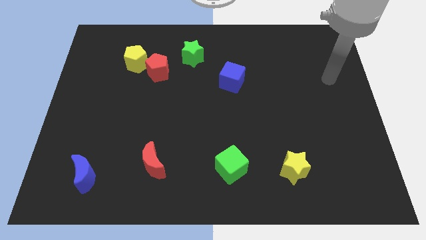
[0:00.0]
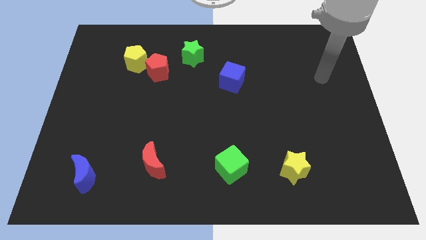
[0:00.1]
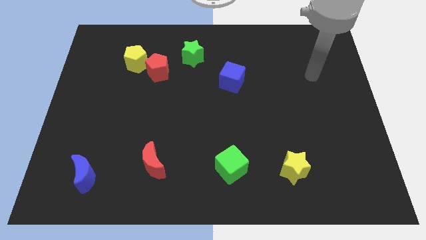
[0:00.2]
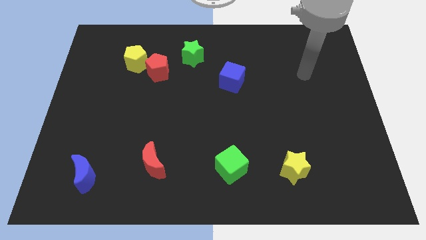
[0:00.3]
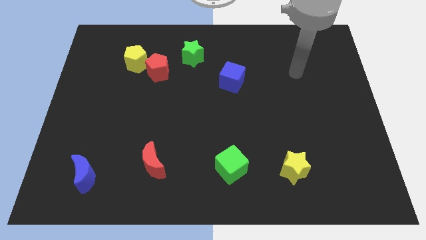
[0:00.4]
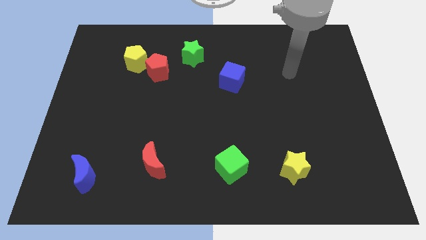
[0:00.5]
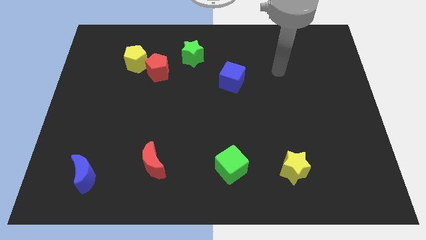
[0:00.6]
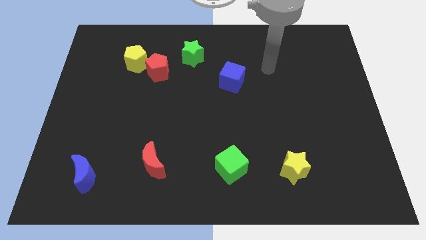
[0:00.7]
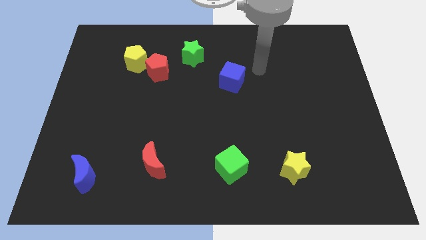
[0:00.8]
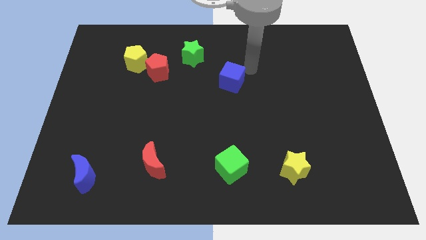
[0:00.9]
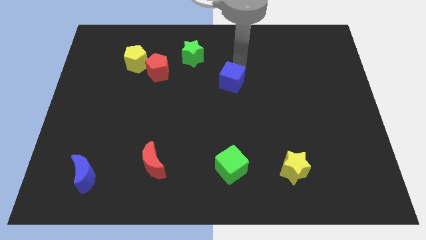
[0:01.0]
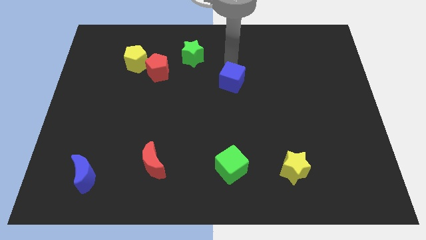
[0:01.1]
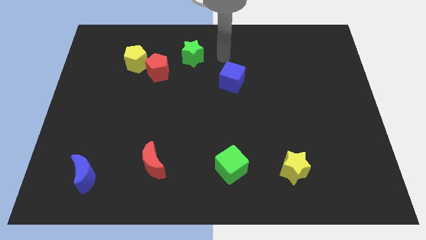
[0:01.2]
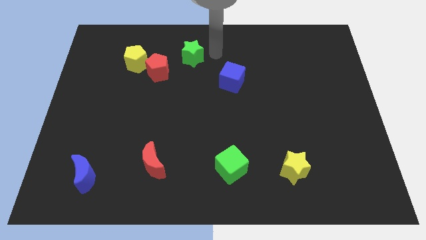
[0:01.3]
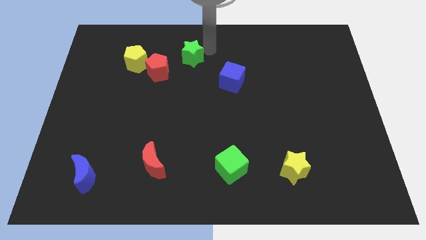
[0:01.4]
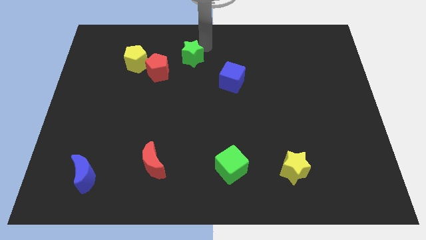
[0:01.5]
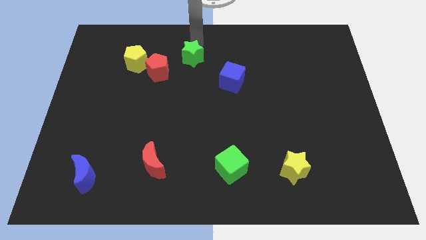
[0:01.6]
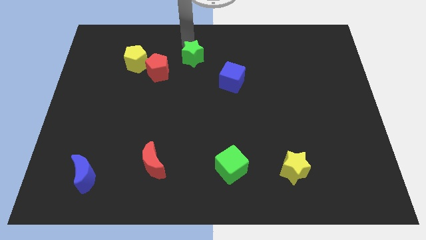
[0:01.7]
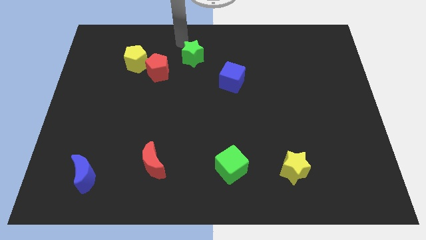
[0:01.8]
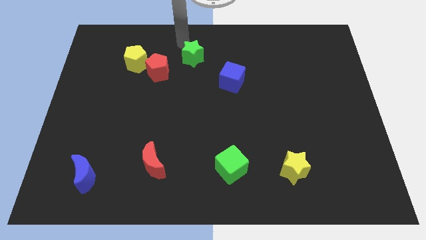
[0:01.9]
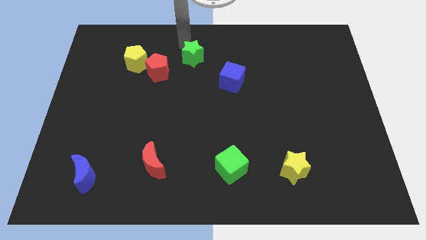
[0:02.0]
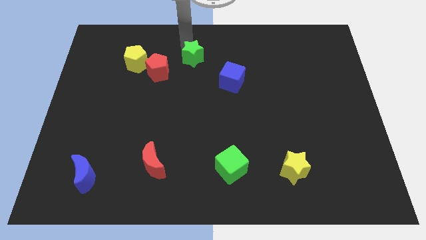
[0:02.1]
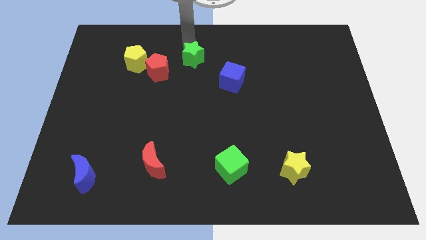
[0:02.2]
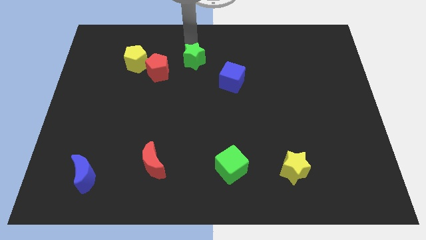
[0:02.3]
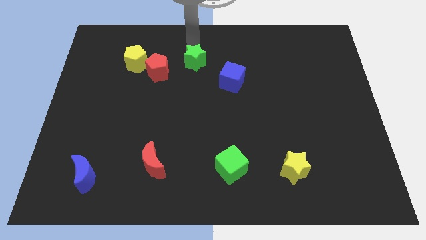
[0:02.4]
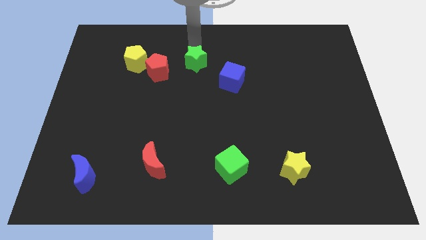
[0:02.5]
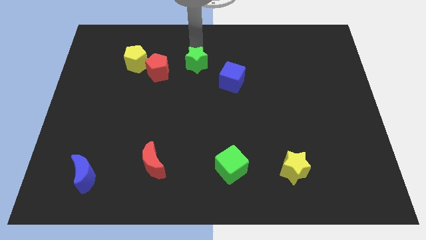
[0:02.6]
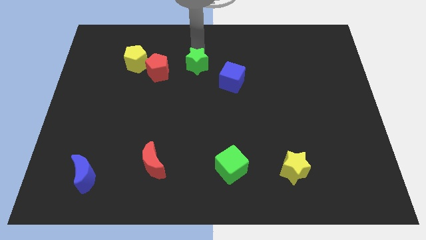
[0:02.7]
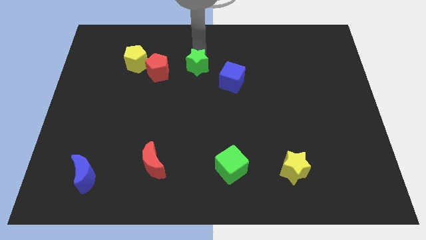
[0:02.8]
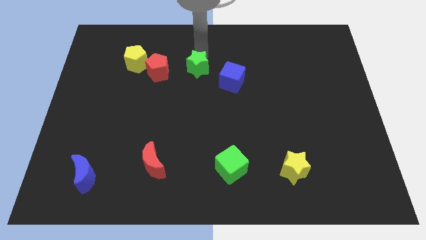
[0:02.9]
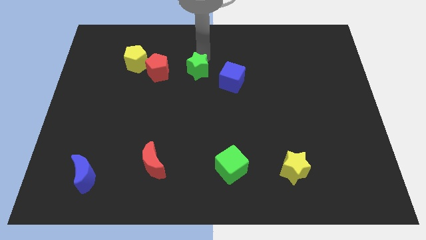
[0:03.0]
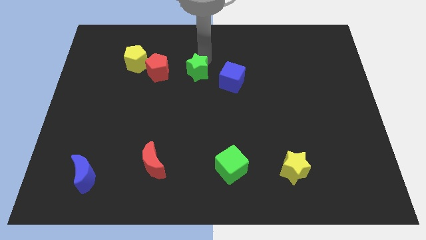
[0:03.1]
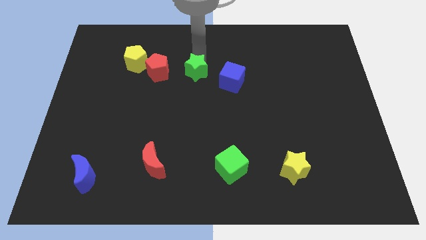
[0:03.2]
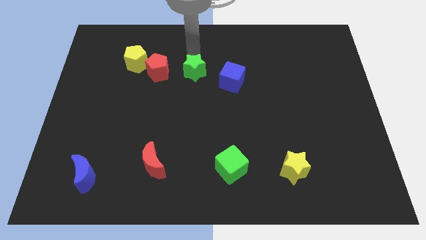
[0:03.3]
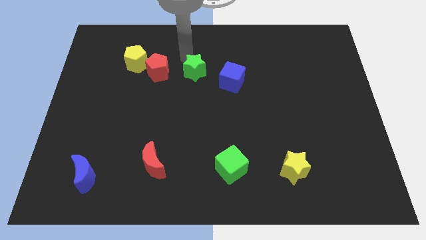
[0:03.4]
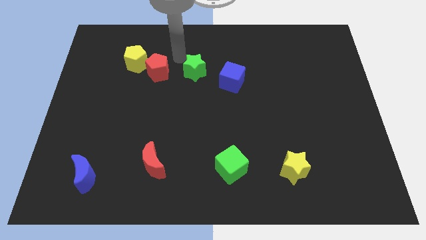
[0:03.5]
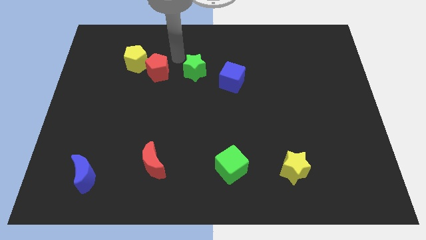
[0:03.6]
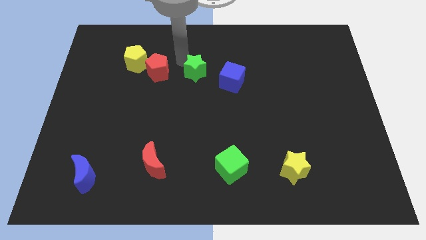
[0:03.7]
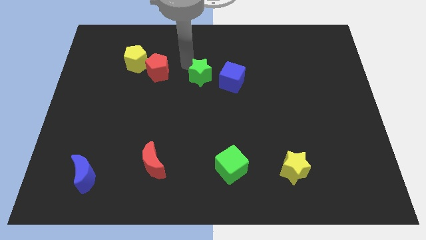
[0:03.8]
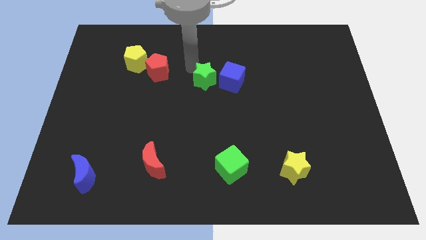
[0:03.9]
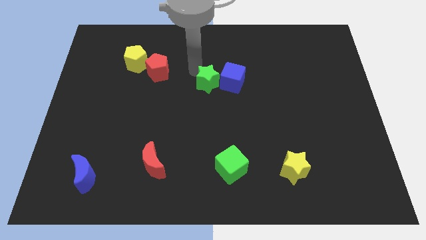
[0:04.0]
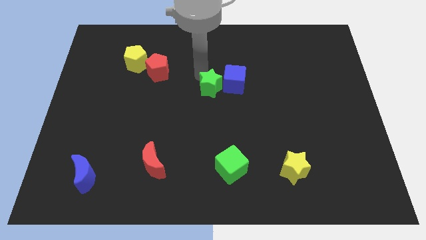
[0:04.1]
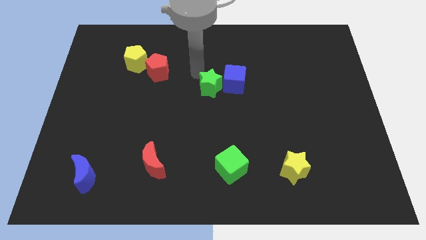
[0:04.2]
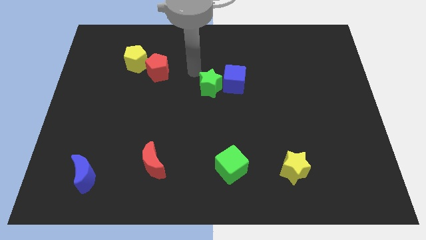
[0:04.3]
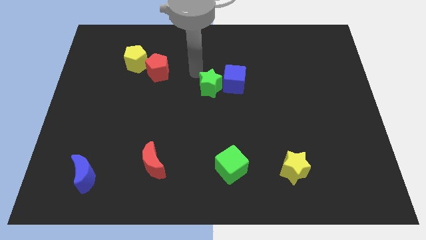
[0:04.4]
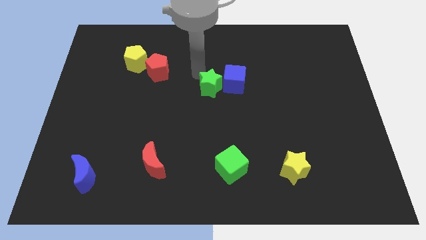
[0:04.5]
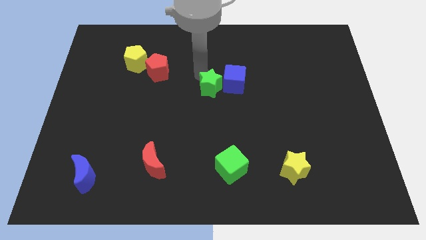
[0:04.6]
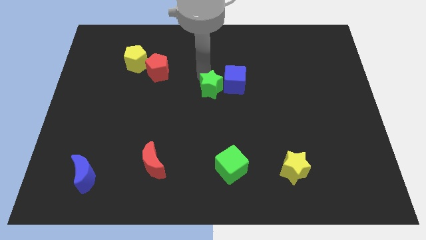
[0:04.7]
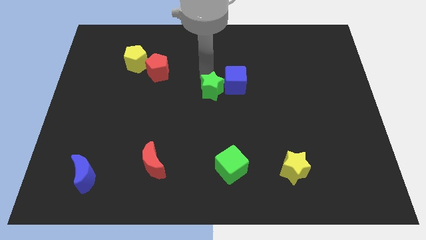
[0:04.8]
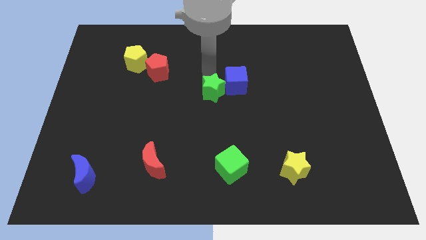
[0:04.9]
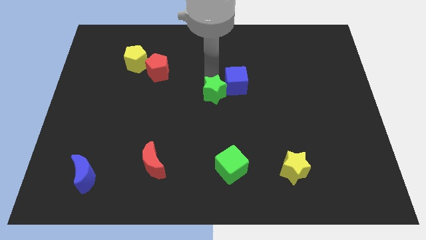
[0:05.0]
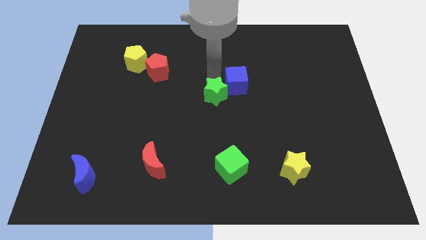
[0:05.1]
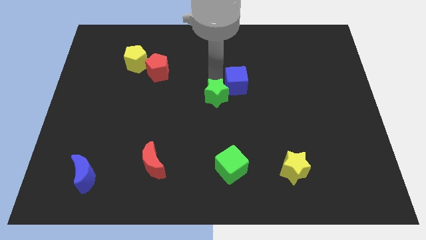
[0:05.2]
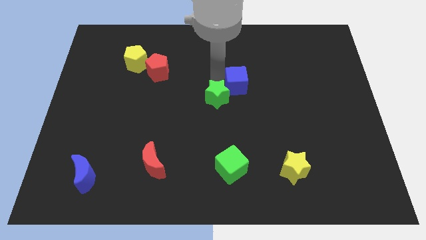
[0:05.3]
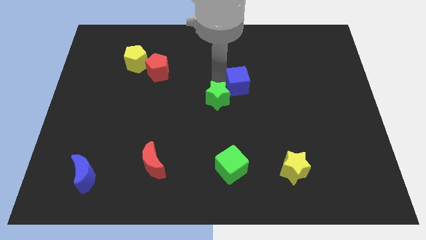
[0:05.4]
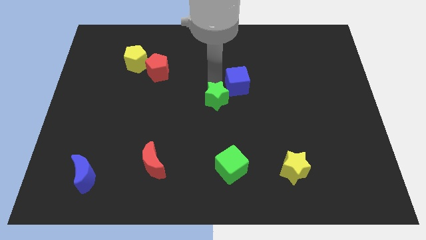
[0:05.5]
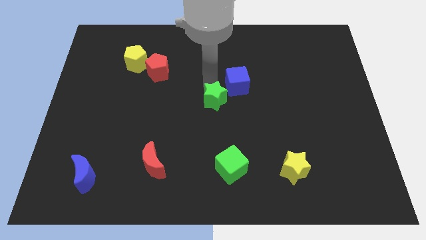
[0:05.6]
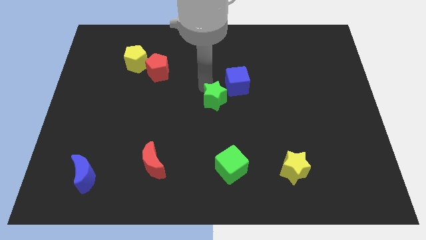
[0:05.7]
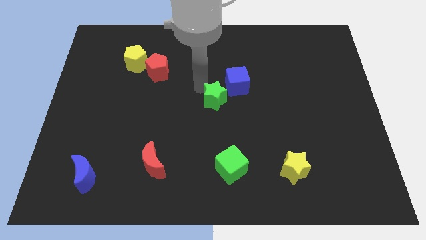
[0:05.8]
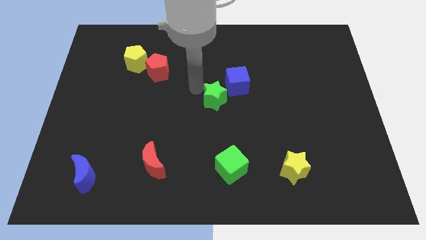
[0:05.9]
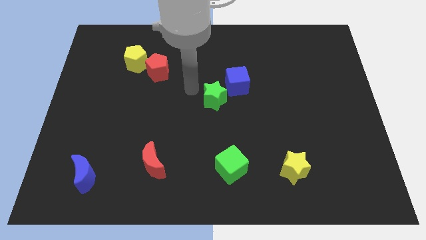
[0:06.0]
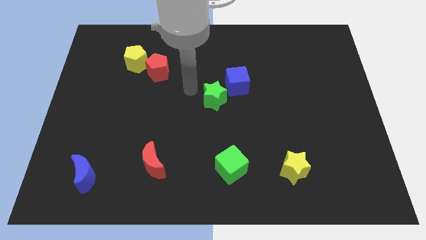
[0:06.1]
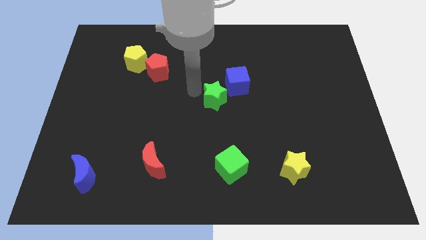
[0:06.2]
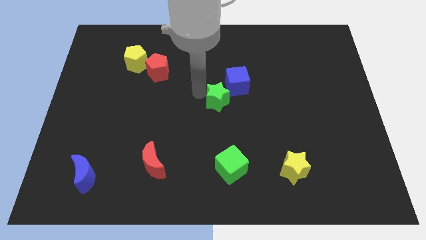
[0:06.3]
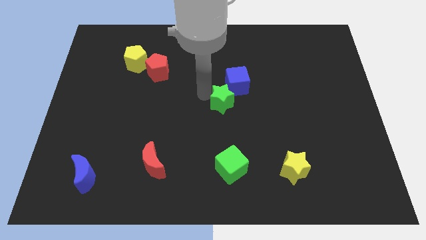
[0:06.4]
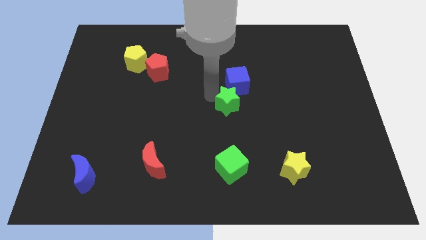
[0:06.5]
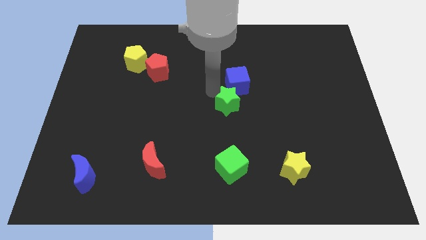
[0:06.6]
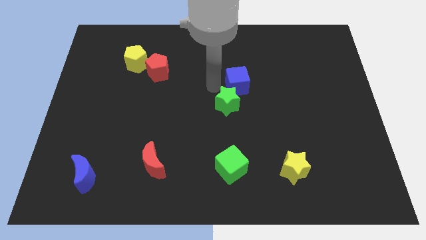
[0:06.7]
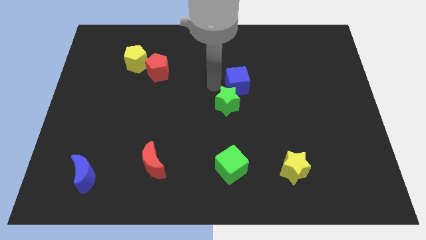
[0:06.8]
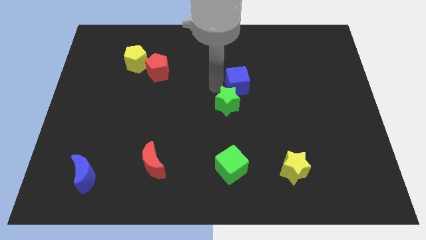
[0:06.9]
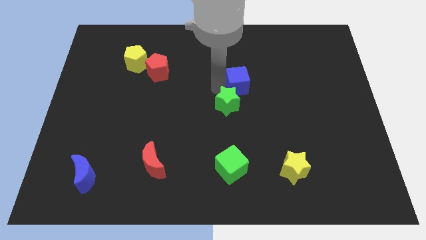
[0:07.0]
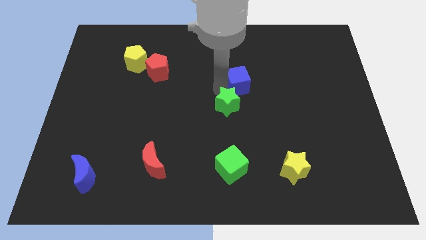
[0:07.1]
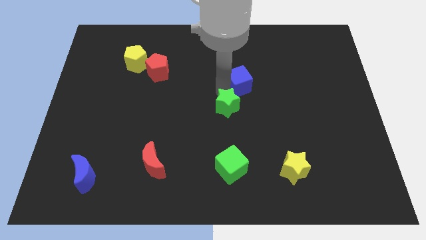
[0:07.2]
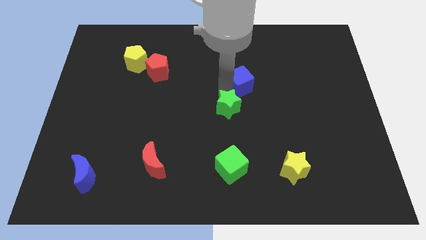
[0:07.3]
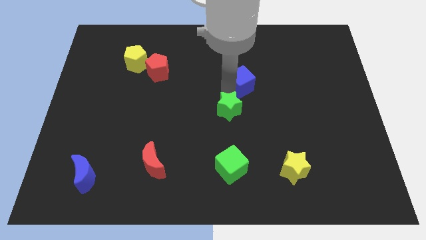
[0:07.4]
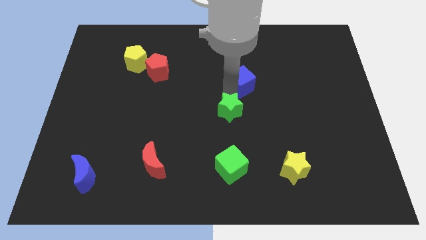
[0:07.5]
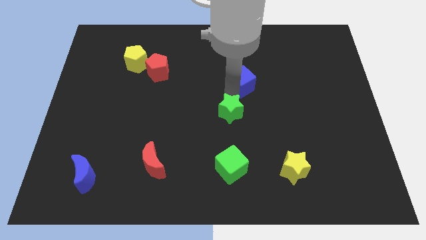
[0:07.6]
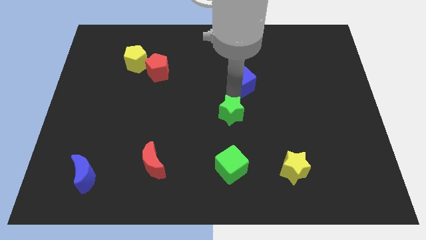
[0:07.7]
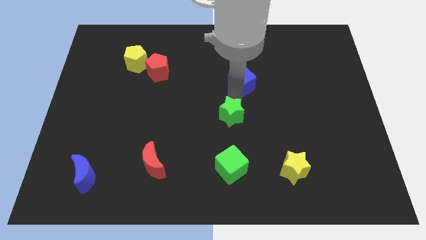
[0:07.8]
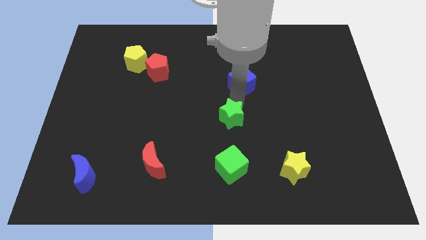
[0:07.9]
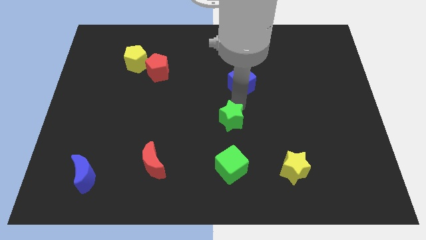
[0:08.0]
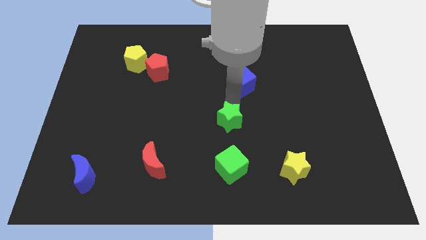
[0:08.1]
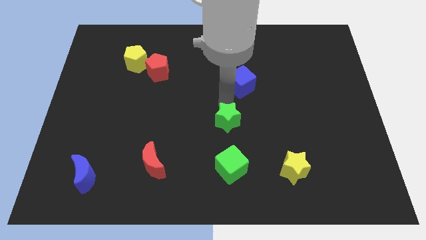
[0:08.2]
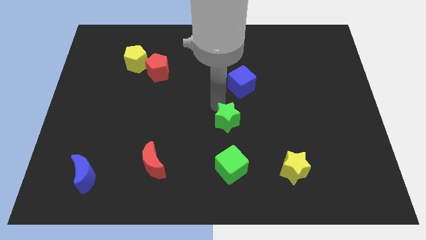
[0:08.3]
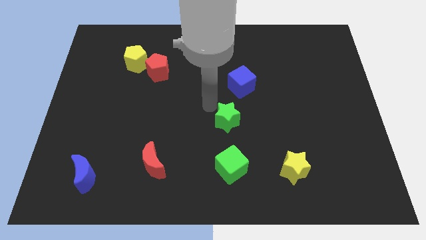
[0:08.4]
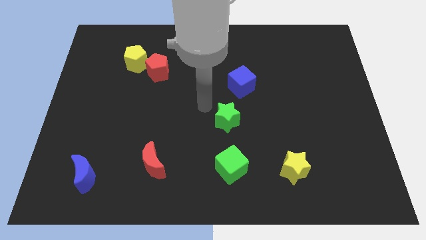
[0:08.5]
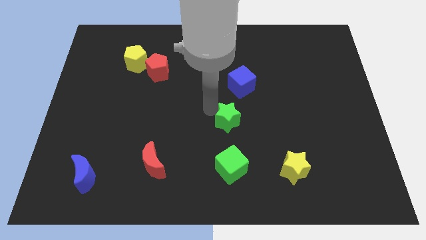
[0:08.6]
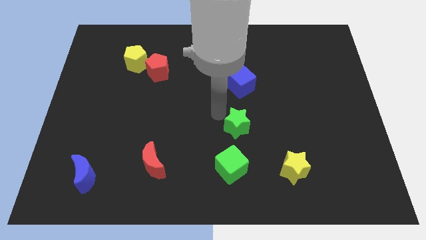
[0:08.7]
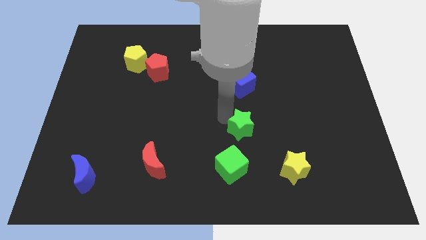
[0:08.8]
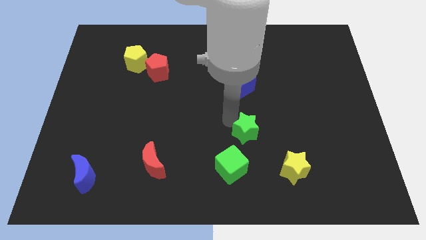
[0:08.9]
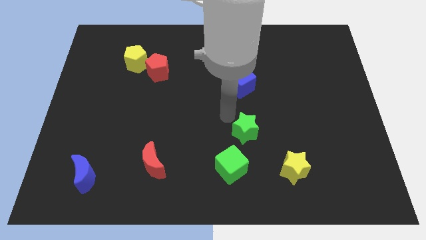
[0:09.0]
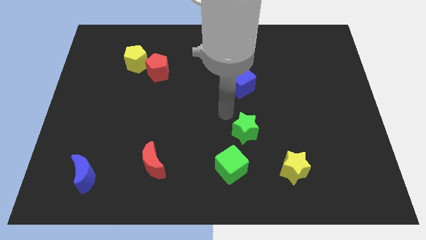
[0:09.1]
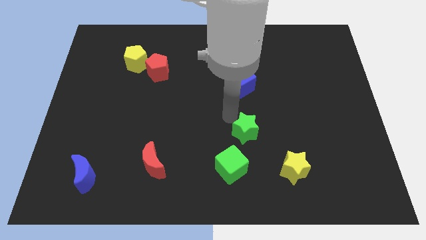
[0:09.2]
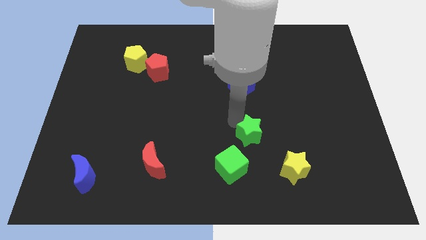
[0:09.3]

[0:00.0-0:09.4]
move the green star diagonally up and to the left of the yellow star
